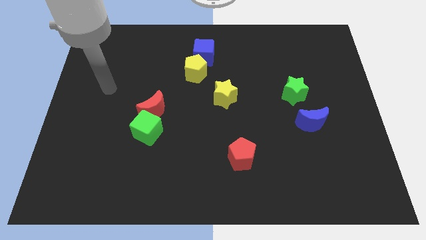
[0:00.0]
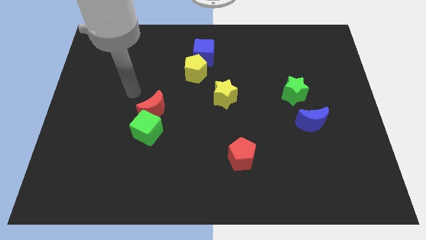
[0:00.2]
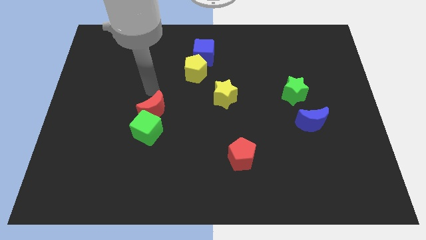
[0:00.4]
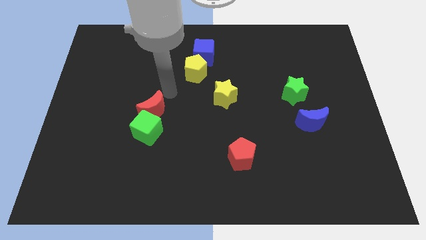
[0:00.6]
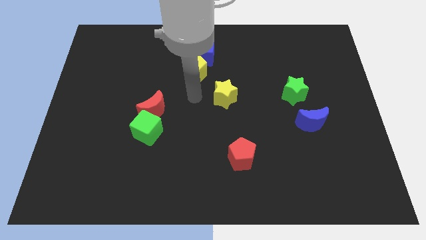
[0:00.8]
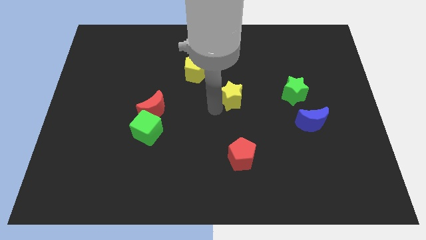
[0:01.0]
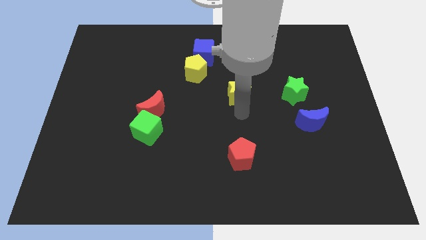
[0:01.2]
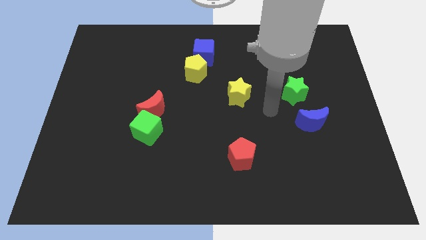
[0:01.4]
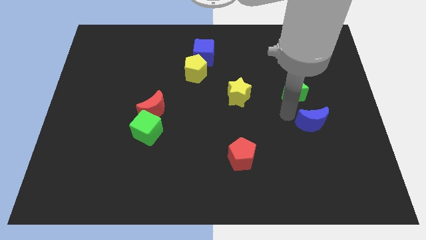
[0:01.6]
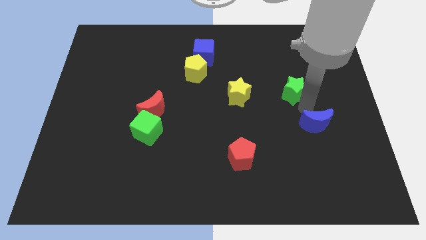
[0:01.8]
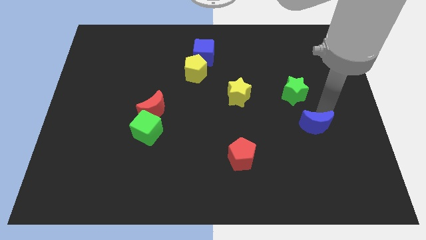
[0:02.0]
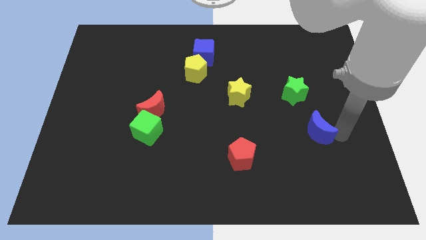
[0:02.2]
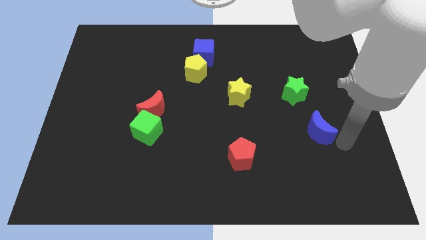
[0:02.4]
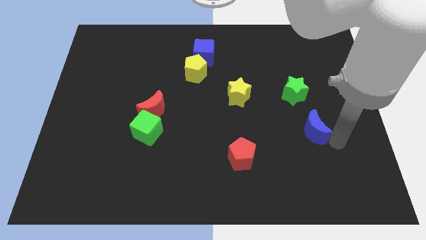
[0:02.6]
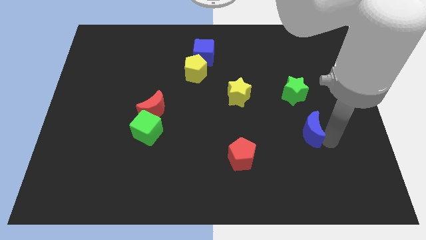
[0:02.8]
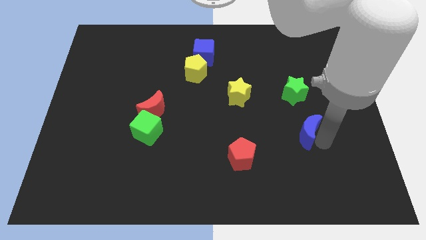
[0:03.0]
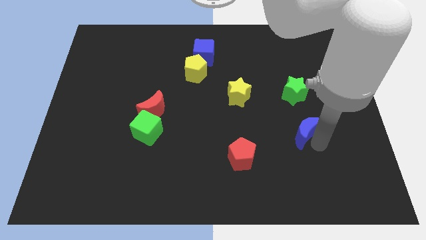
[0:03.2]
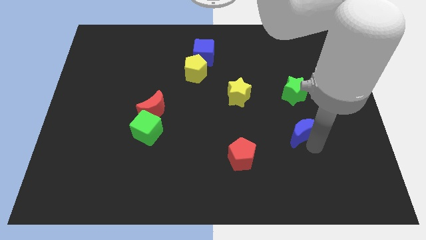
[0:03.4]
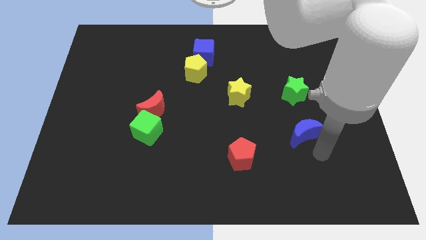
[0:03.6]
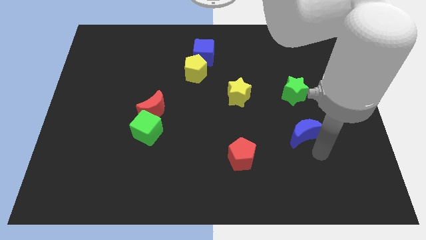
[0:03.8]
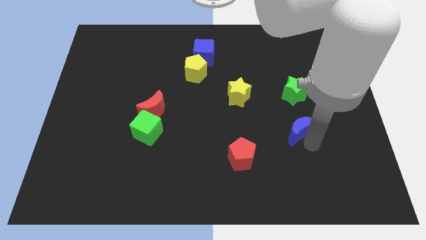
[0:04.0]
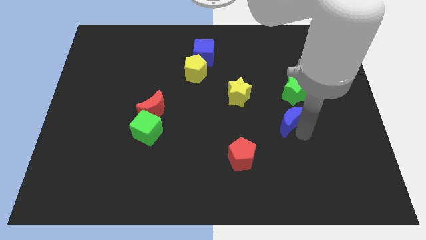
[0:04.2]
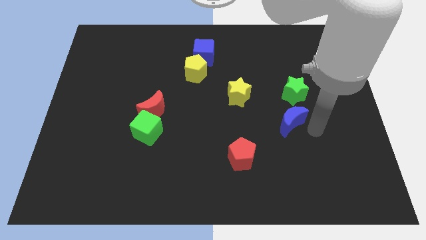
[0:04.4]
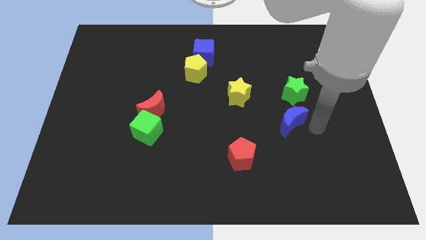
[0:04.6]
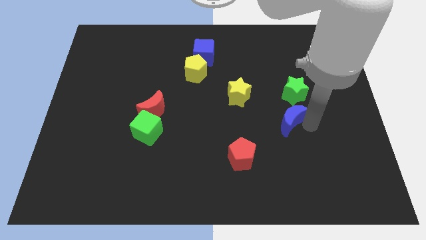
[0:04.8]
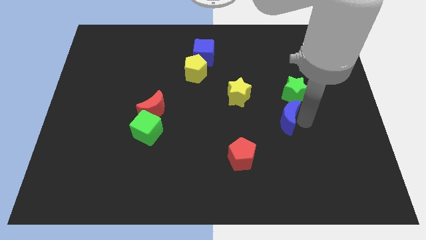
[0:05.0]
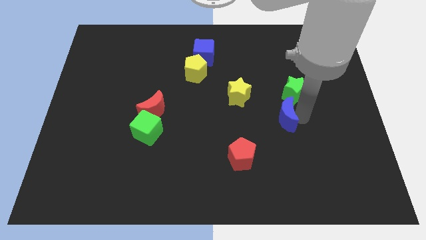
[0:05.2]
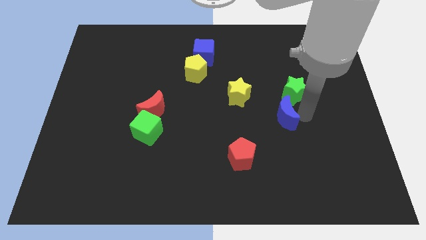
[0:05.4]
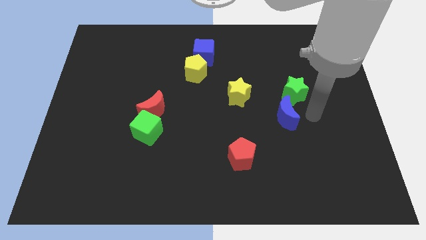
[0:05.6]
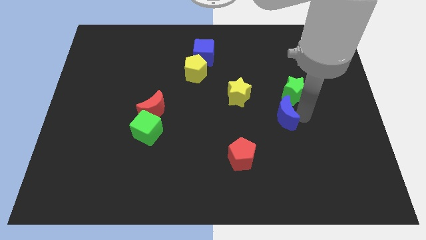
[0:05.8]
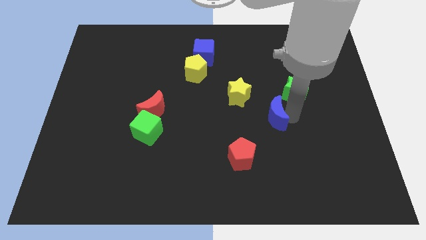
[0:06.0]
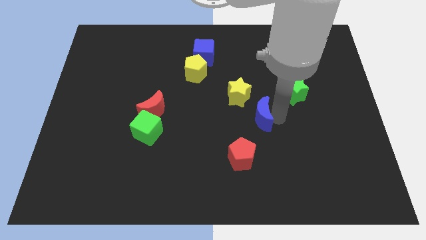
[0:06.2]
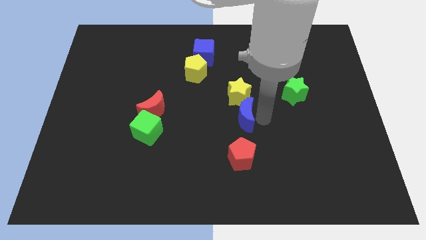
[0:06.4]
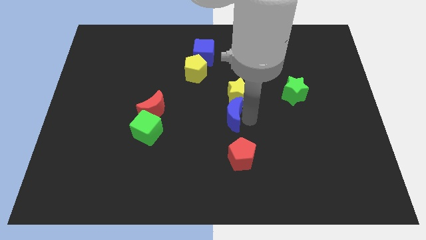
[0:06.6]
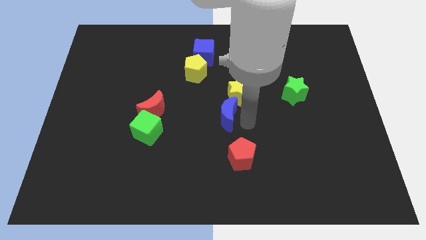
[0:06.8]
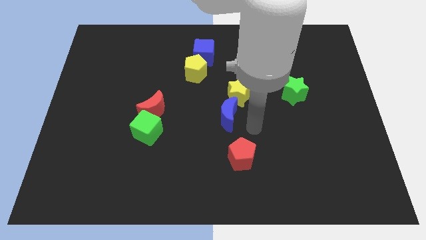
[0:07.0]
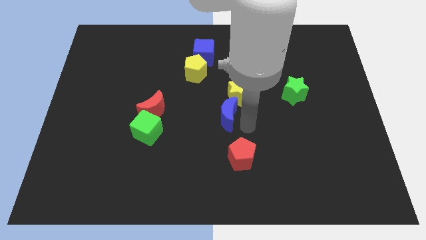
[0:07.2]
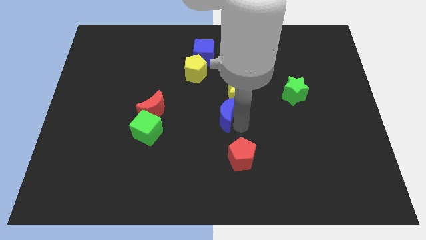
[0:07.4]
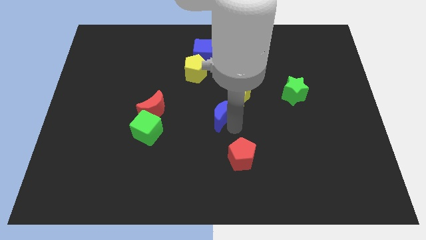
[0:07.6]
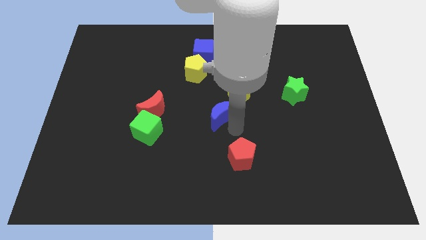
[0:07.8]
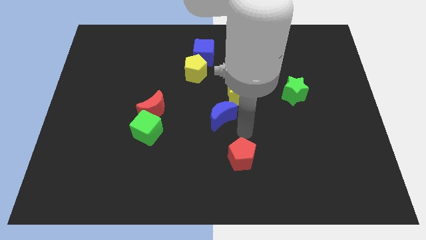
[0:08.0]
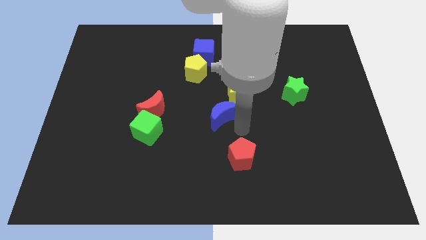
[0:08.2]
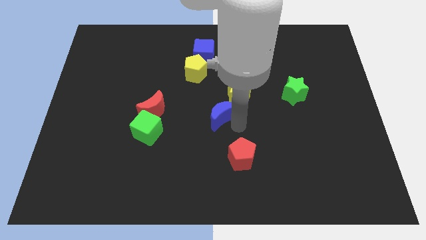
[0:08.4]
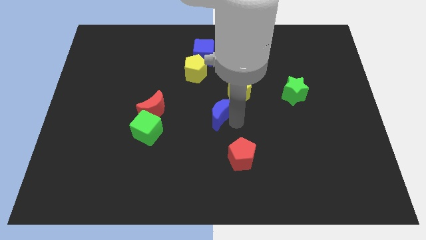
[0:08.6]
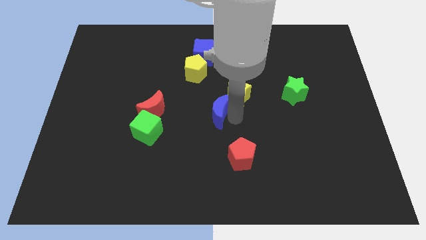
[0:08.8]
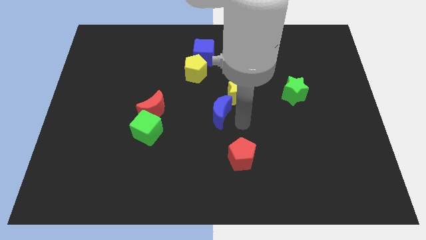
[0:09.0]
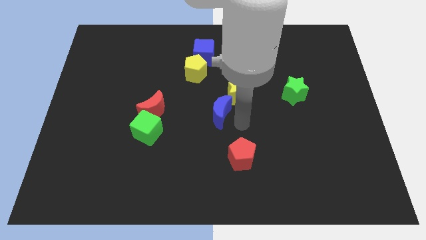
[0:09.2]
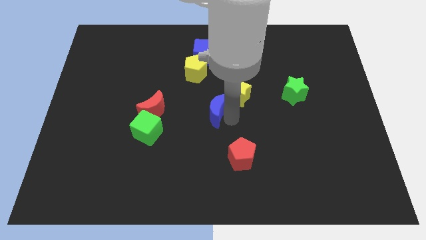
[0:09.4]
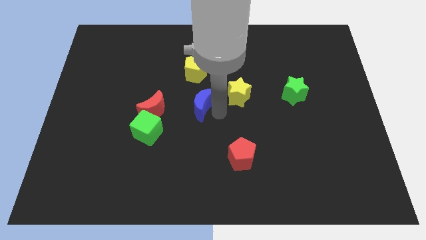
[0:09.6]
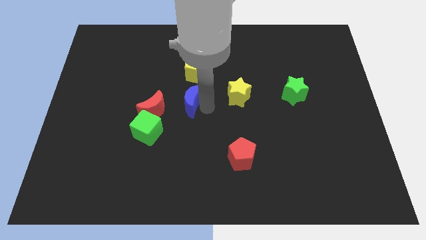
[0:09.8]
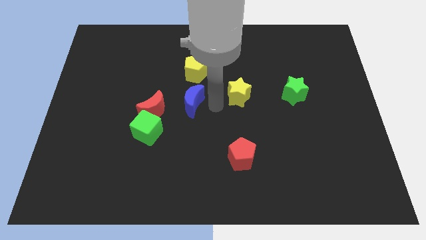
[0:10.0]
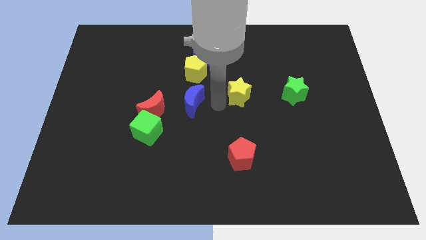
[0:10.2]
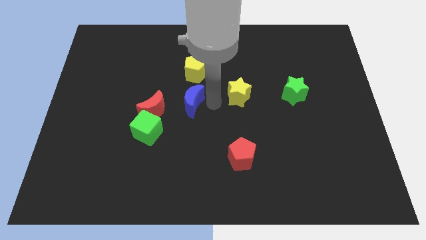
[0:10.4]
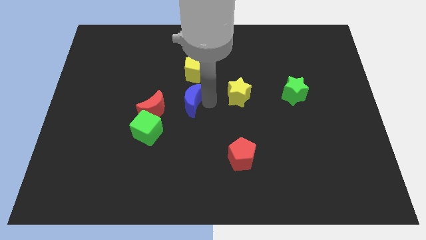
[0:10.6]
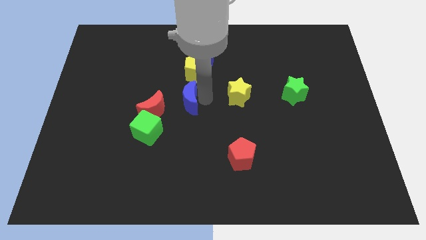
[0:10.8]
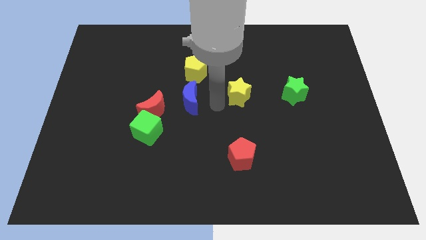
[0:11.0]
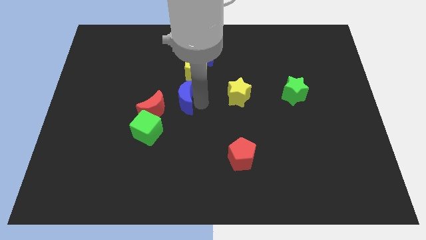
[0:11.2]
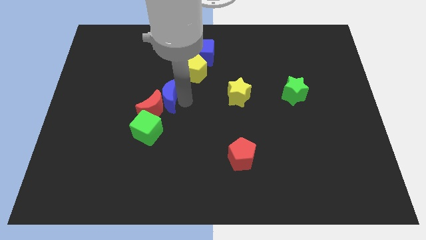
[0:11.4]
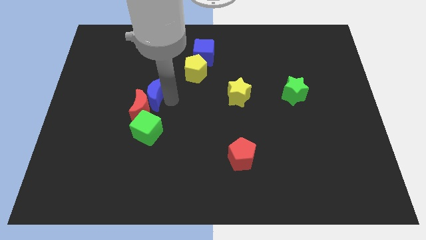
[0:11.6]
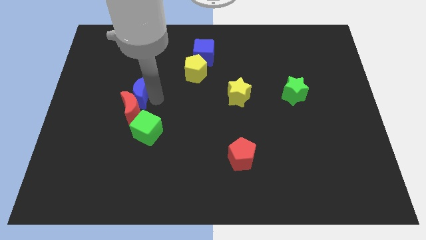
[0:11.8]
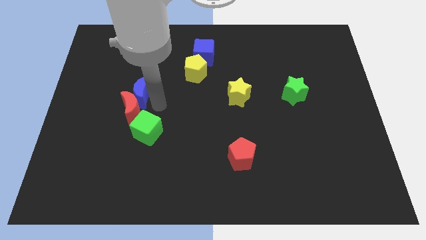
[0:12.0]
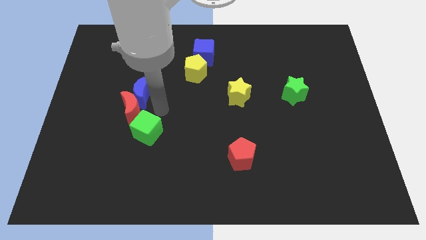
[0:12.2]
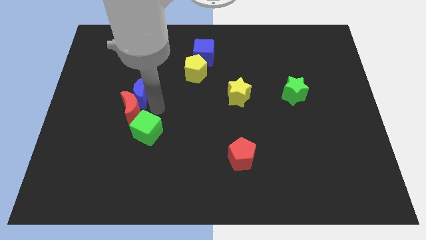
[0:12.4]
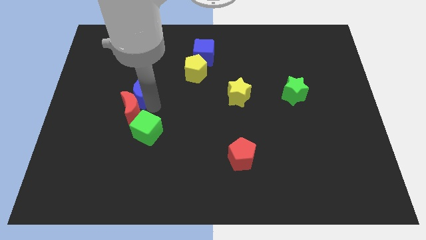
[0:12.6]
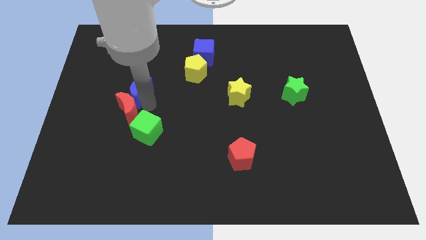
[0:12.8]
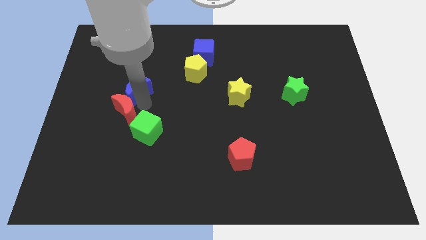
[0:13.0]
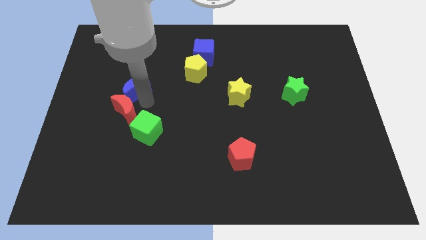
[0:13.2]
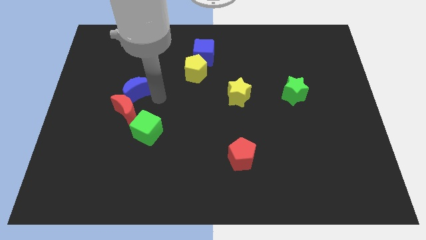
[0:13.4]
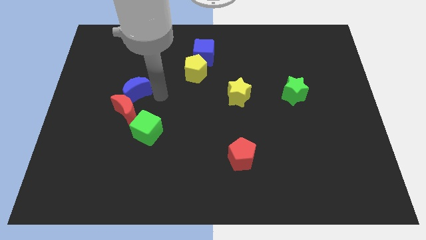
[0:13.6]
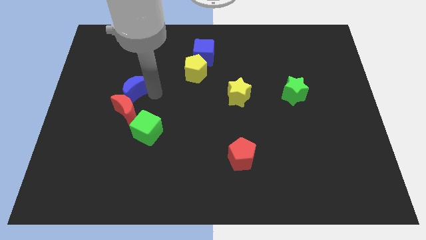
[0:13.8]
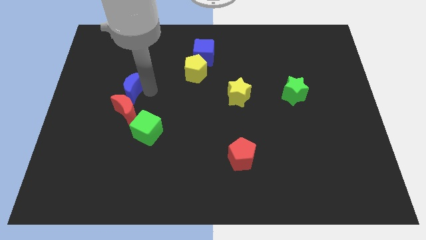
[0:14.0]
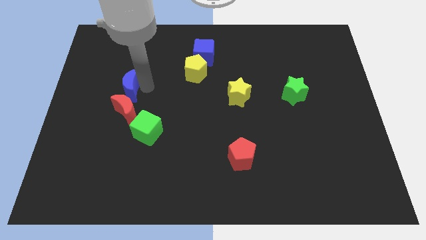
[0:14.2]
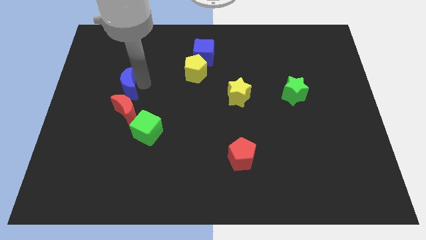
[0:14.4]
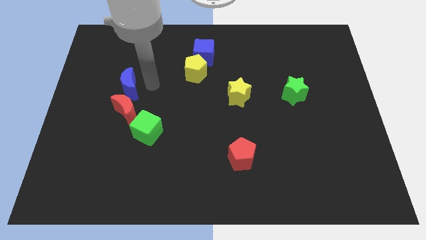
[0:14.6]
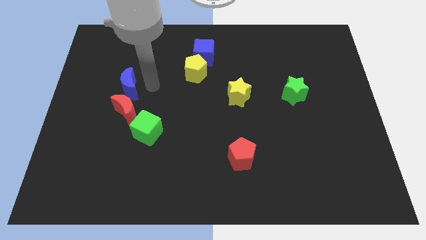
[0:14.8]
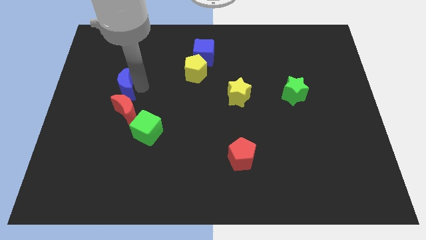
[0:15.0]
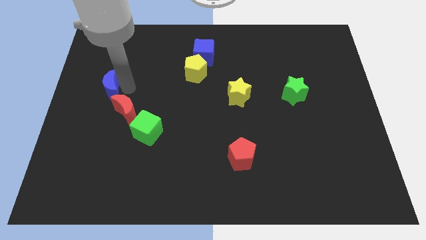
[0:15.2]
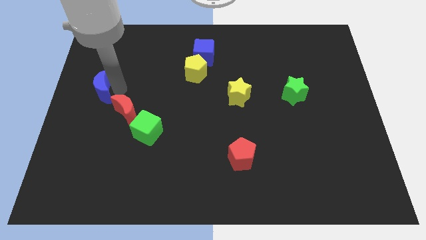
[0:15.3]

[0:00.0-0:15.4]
push the blue moon to the center left
